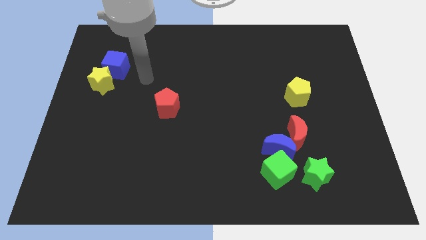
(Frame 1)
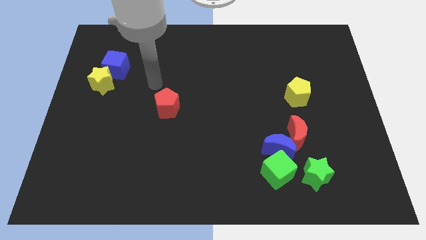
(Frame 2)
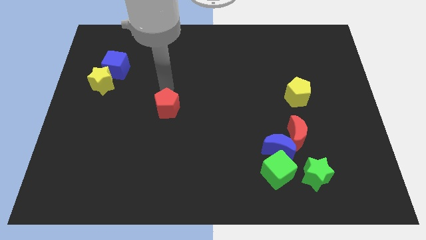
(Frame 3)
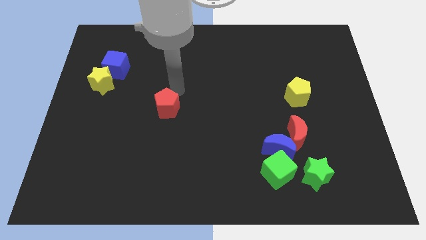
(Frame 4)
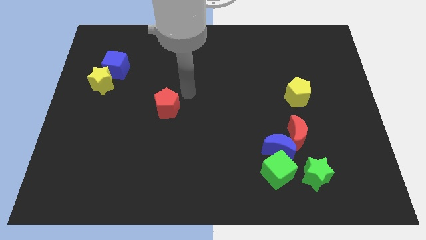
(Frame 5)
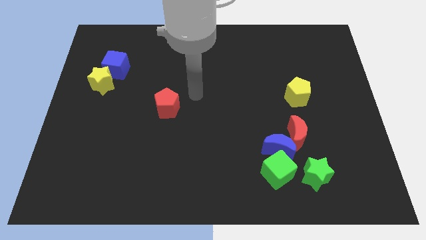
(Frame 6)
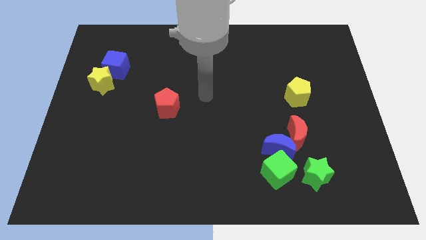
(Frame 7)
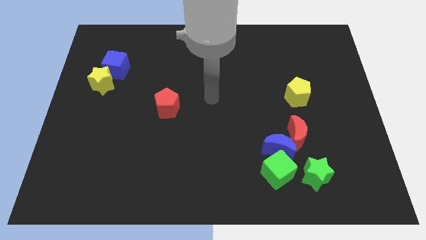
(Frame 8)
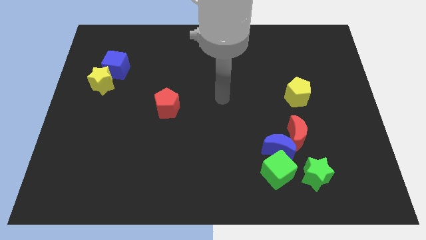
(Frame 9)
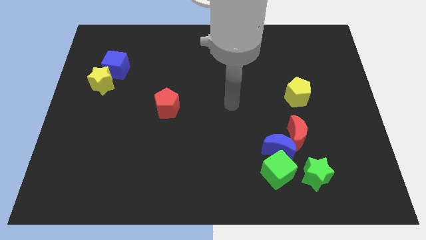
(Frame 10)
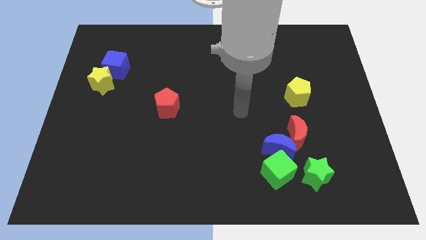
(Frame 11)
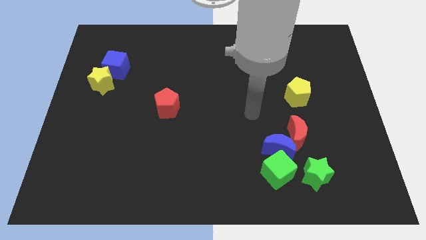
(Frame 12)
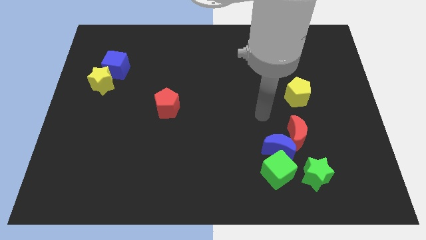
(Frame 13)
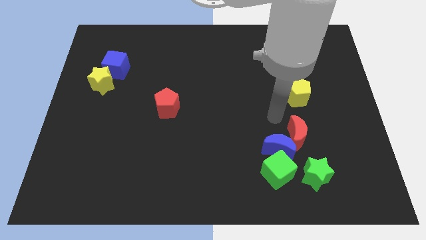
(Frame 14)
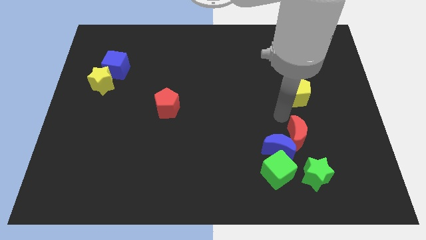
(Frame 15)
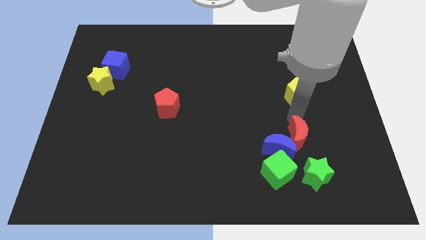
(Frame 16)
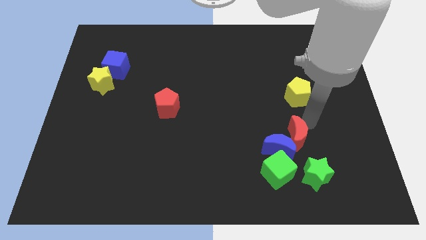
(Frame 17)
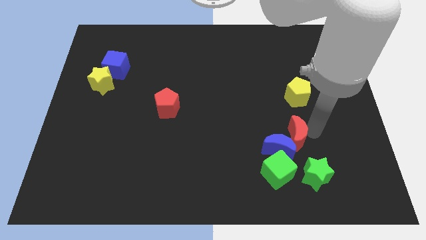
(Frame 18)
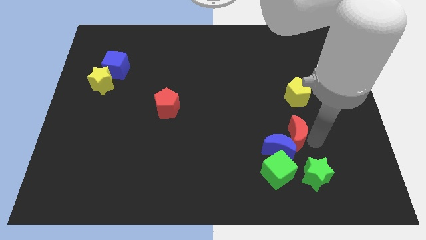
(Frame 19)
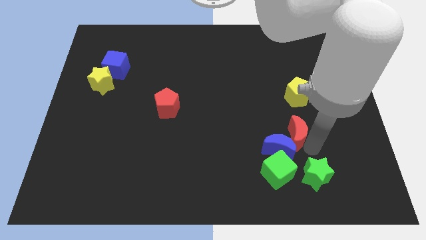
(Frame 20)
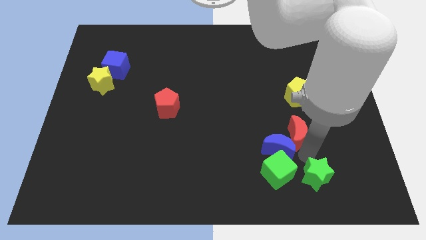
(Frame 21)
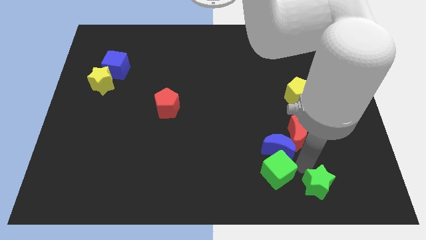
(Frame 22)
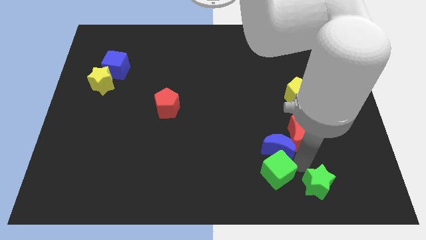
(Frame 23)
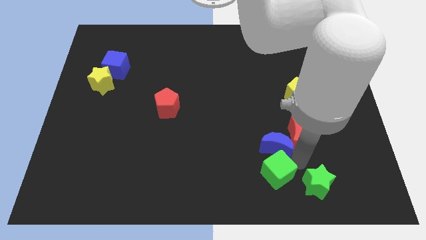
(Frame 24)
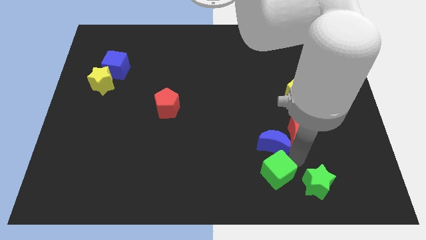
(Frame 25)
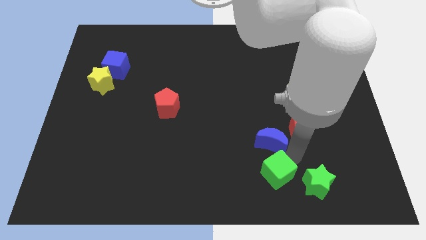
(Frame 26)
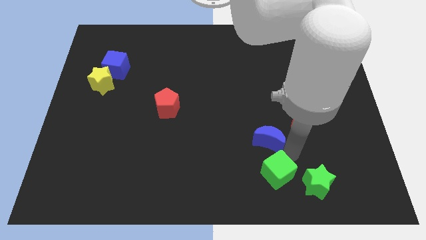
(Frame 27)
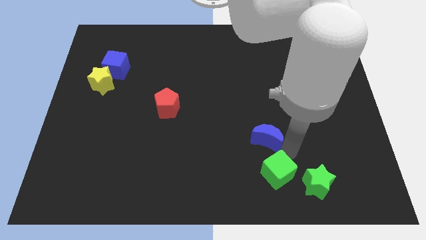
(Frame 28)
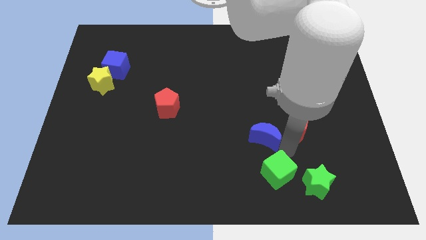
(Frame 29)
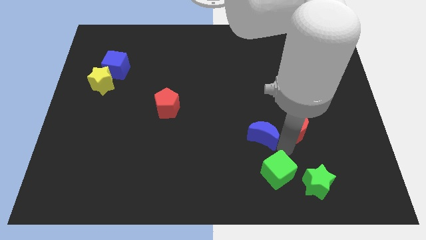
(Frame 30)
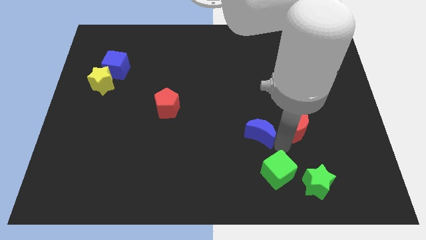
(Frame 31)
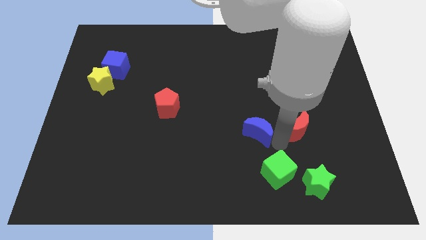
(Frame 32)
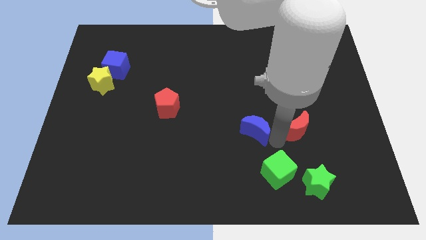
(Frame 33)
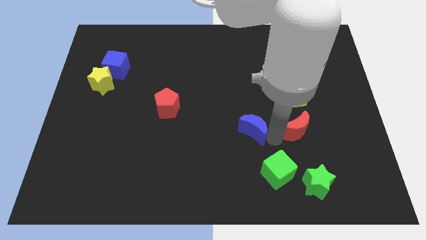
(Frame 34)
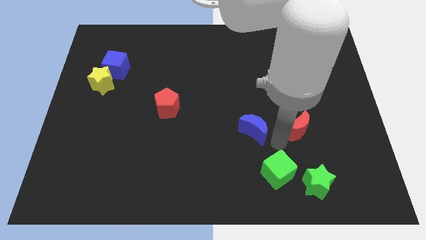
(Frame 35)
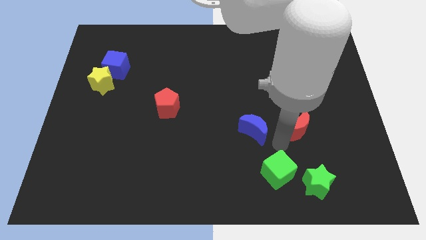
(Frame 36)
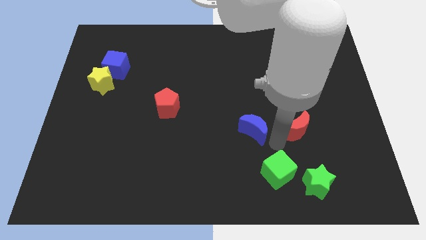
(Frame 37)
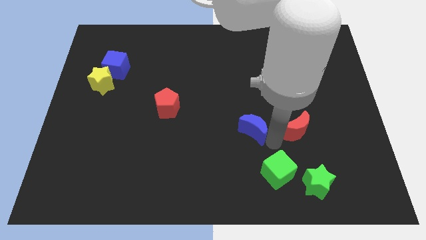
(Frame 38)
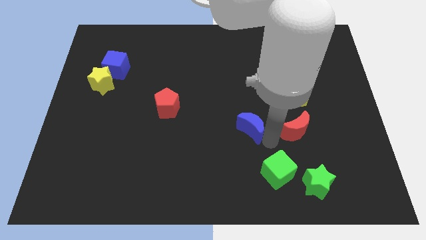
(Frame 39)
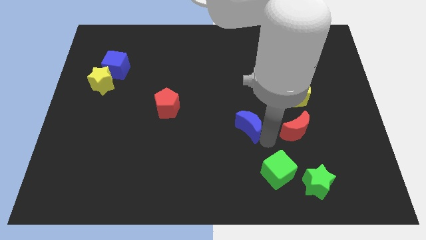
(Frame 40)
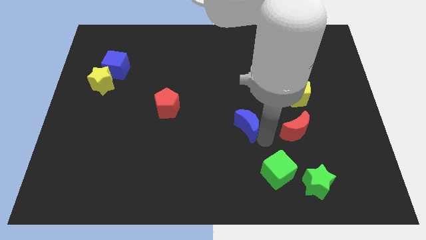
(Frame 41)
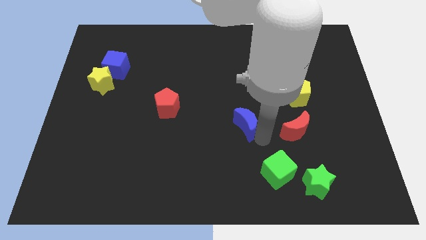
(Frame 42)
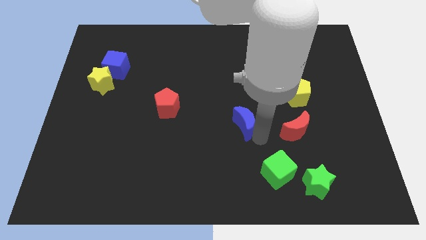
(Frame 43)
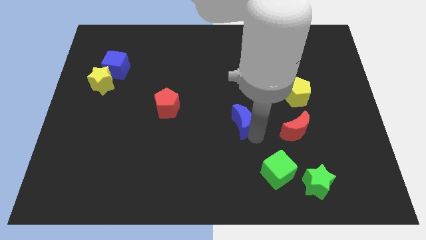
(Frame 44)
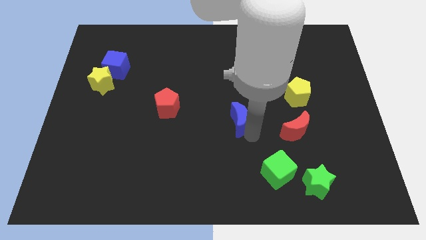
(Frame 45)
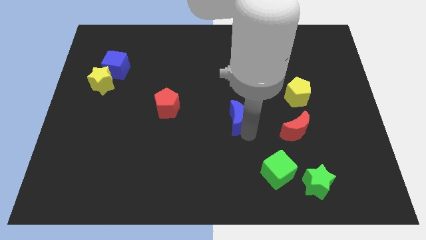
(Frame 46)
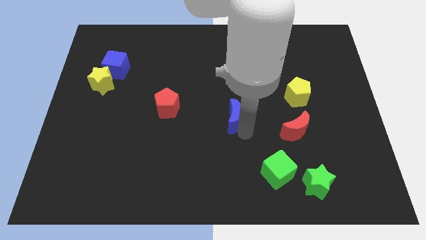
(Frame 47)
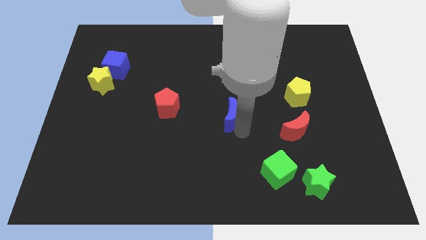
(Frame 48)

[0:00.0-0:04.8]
move the blue moon to the right side of the red pentagon

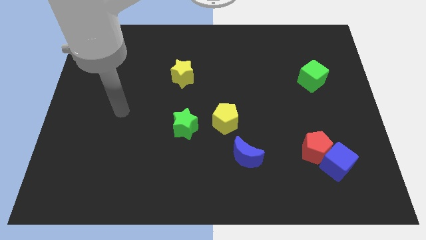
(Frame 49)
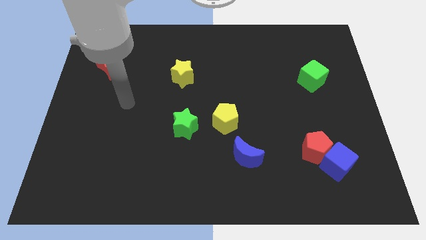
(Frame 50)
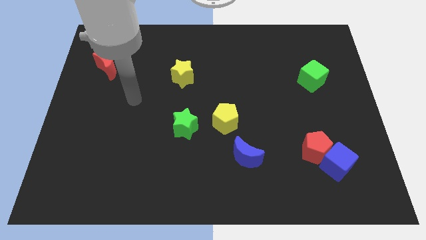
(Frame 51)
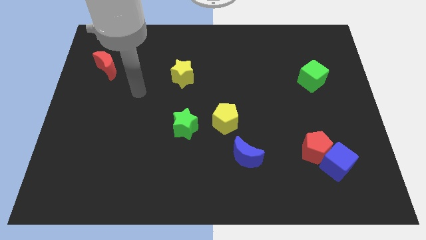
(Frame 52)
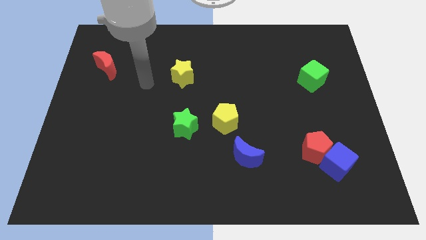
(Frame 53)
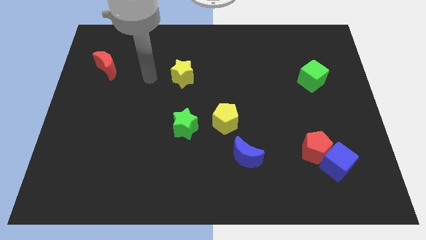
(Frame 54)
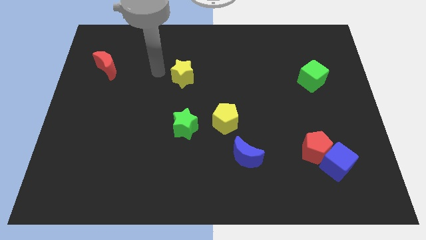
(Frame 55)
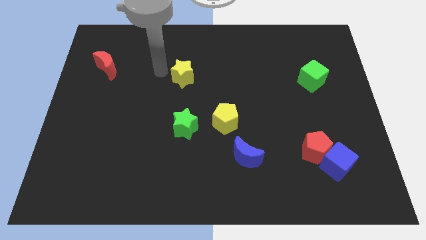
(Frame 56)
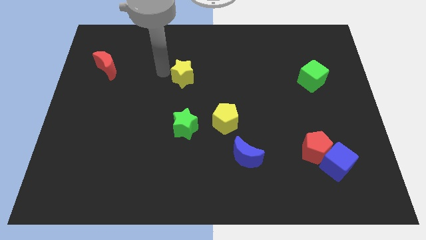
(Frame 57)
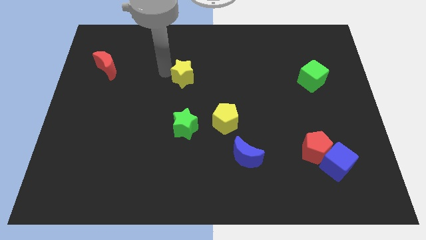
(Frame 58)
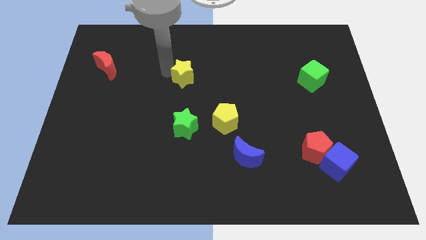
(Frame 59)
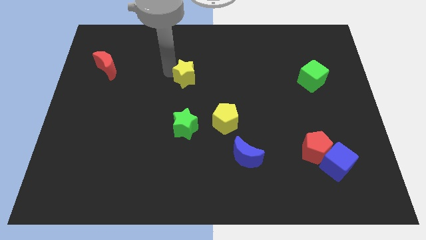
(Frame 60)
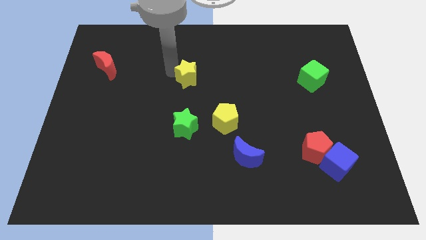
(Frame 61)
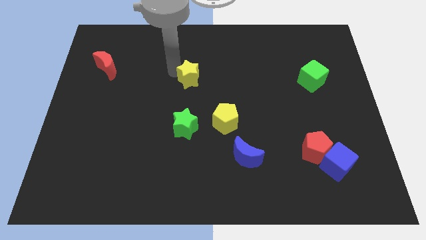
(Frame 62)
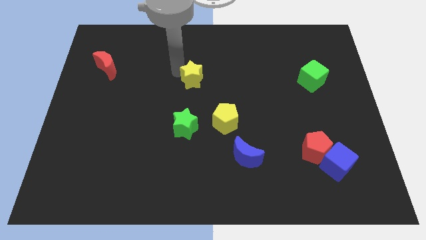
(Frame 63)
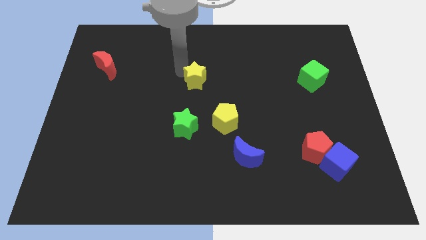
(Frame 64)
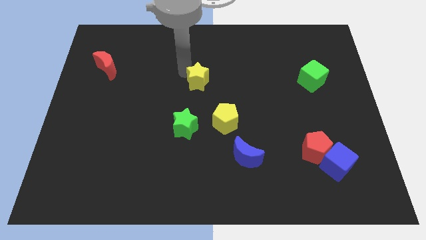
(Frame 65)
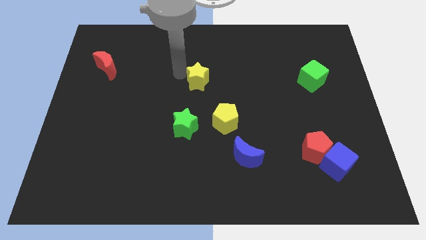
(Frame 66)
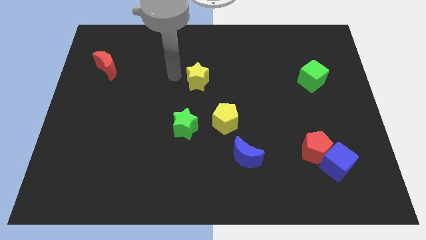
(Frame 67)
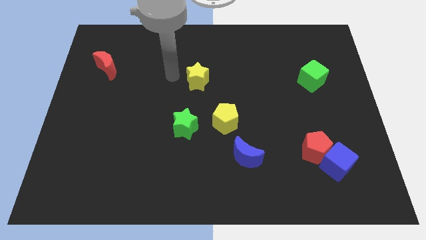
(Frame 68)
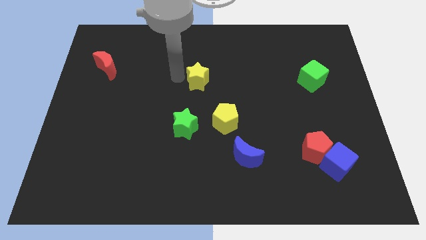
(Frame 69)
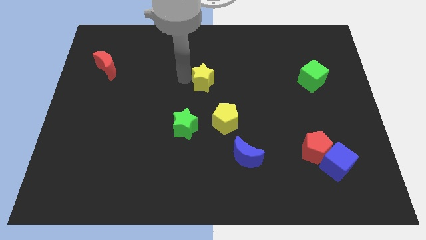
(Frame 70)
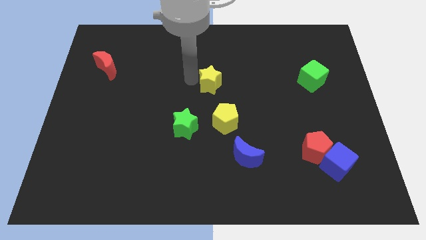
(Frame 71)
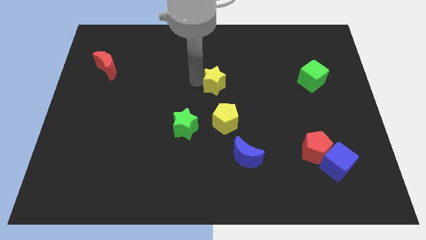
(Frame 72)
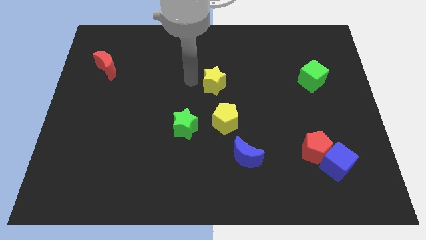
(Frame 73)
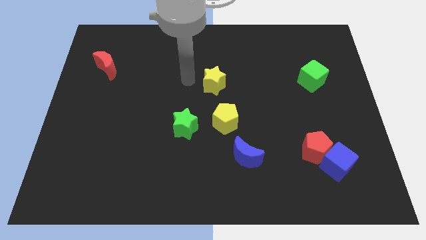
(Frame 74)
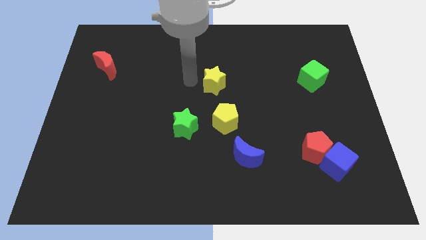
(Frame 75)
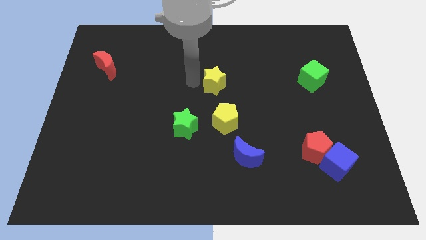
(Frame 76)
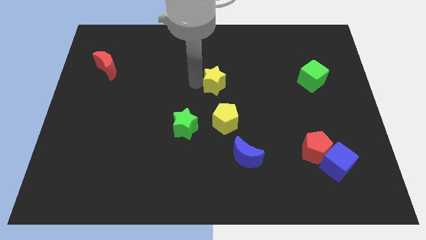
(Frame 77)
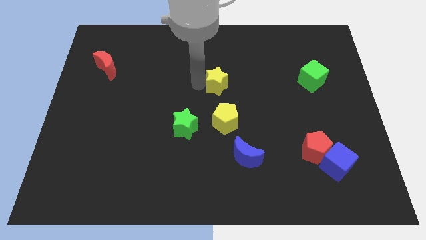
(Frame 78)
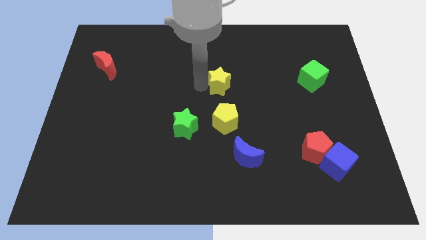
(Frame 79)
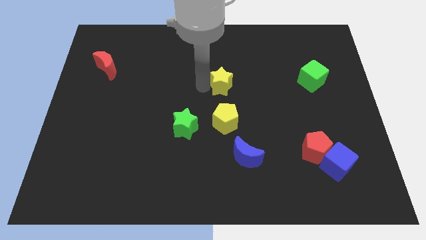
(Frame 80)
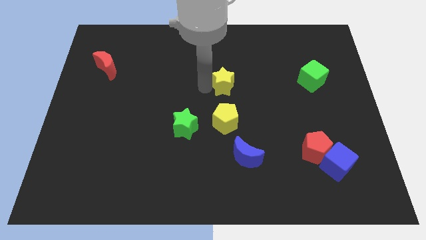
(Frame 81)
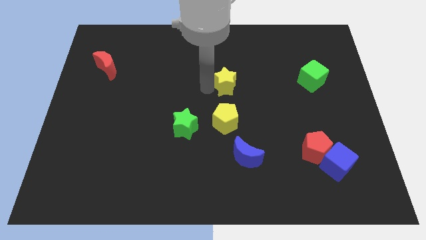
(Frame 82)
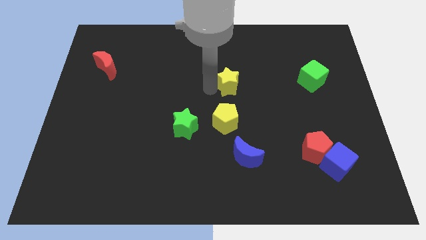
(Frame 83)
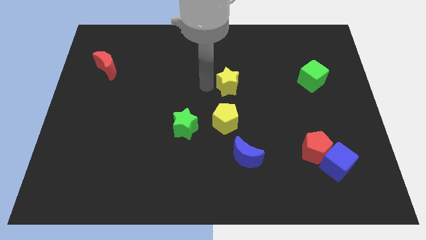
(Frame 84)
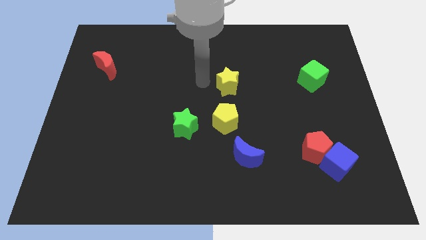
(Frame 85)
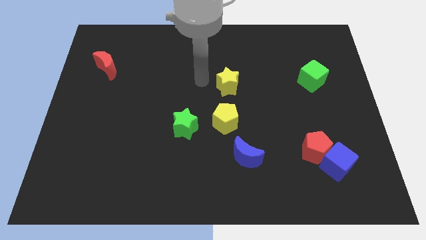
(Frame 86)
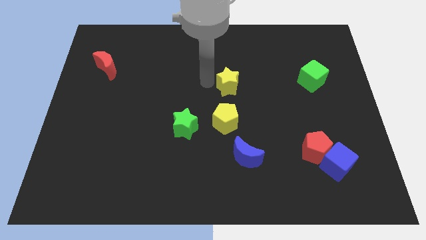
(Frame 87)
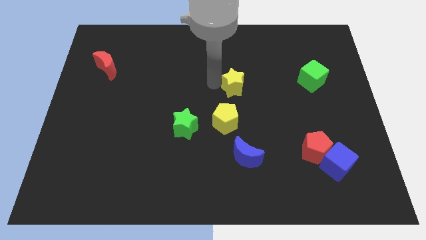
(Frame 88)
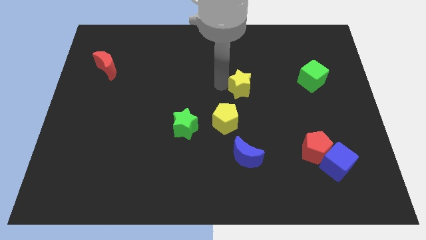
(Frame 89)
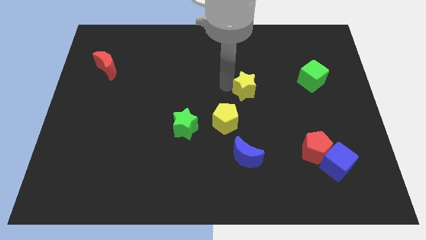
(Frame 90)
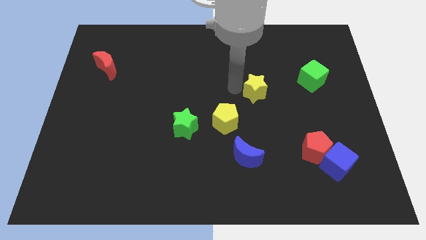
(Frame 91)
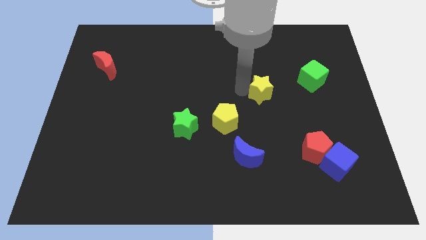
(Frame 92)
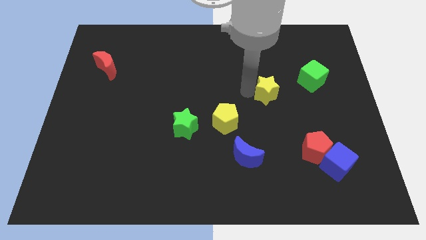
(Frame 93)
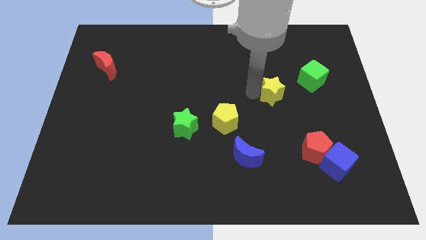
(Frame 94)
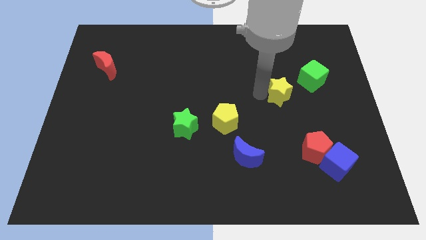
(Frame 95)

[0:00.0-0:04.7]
move the yellow star diagonally down and to the left of the green cube
